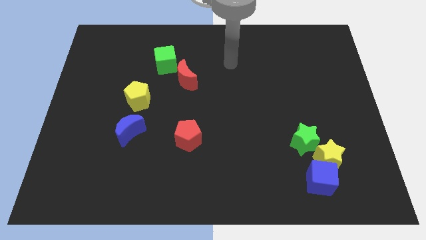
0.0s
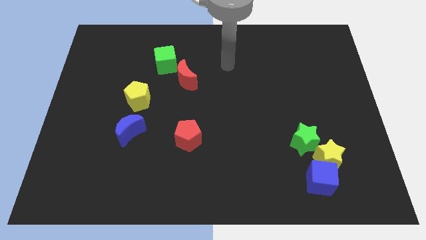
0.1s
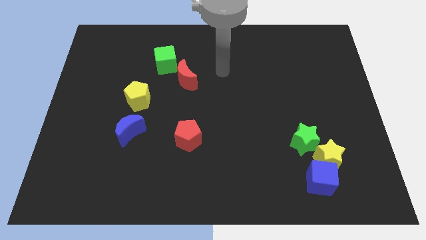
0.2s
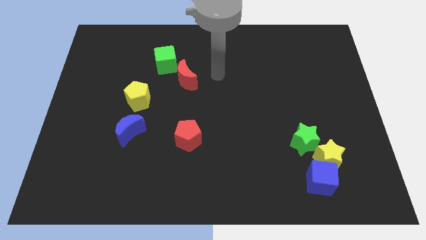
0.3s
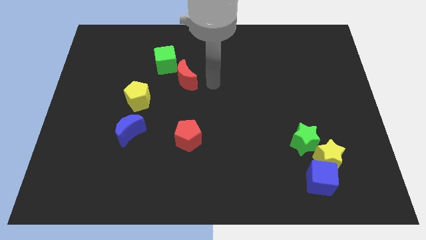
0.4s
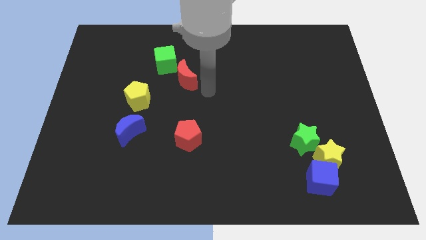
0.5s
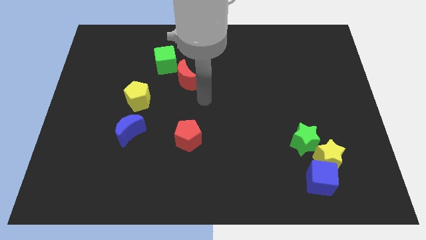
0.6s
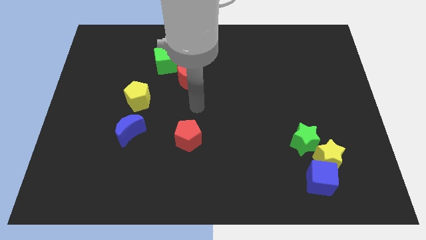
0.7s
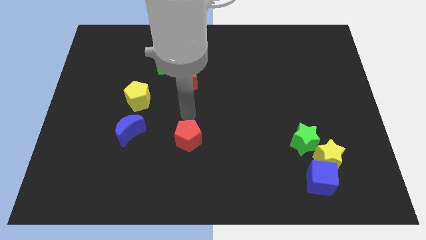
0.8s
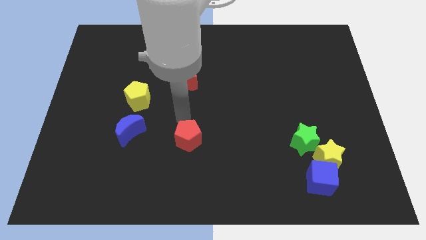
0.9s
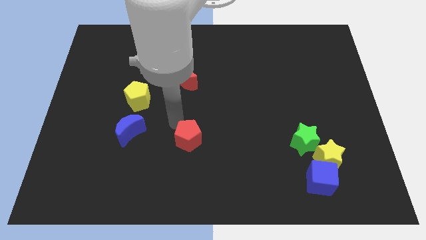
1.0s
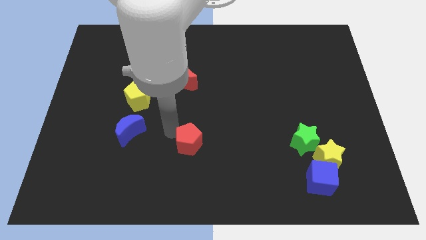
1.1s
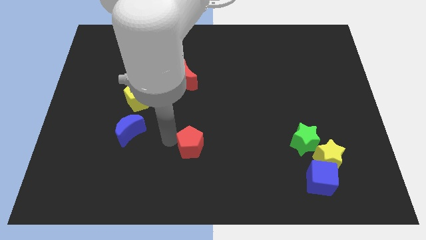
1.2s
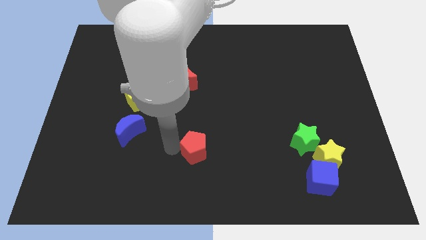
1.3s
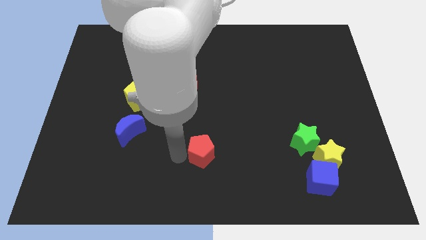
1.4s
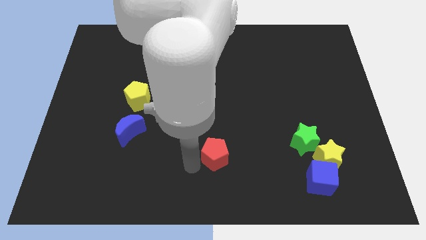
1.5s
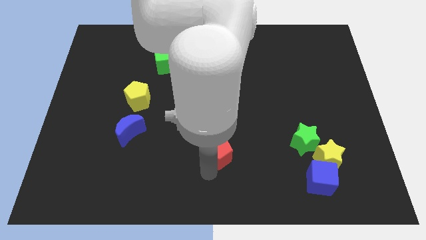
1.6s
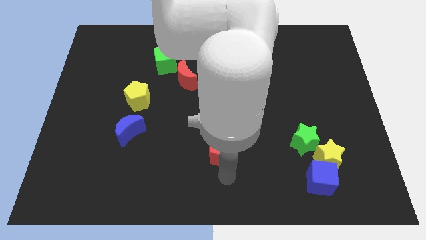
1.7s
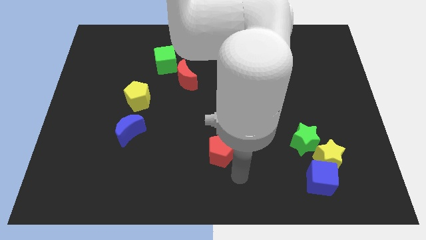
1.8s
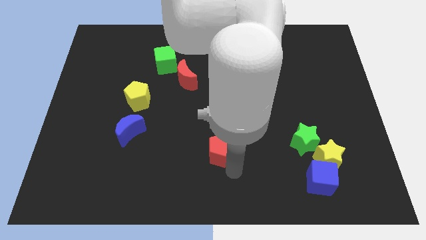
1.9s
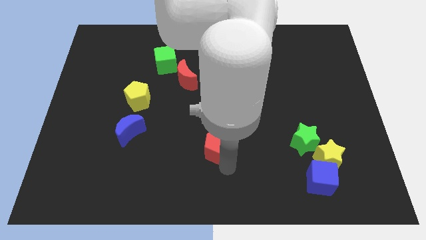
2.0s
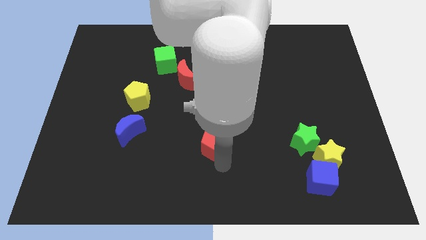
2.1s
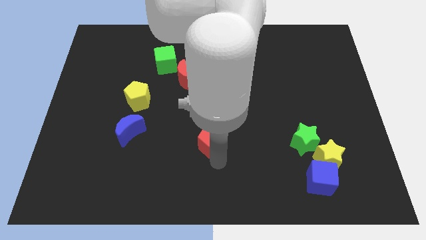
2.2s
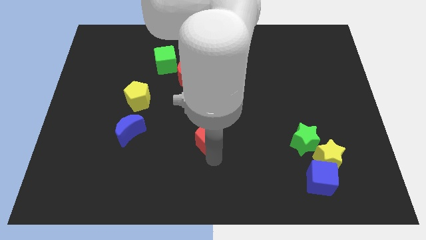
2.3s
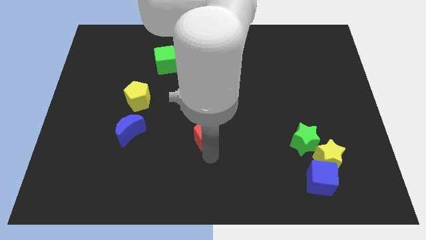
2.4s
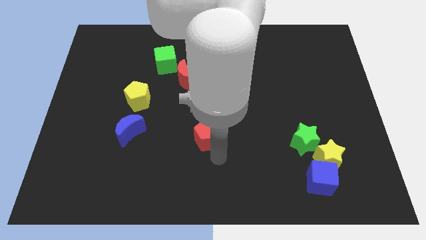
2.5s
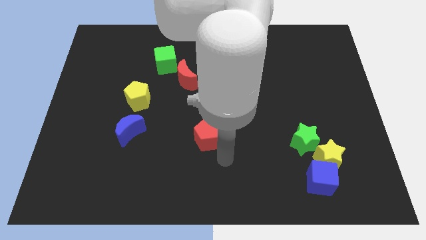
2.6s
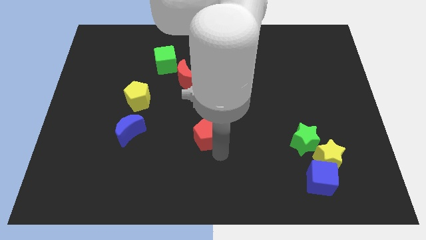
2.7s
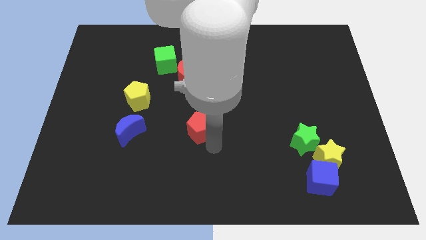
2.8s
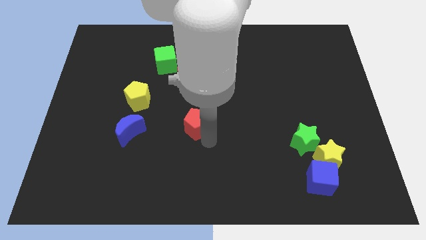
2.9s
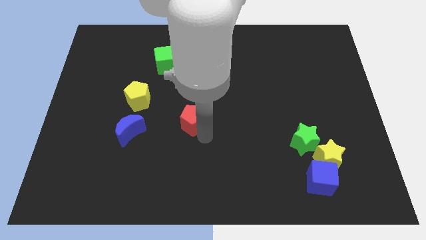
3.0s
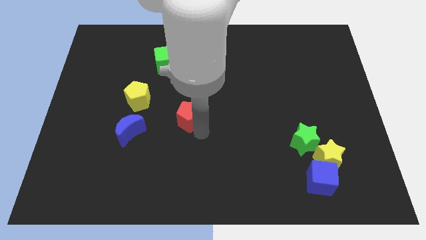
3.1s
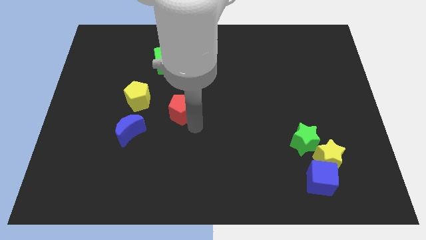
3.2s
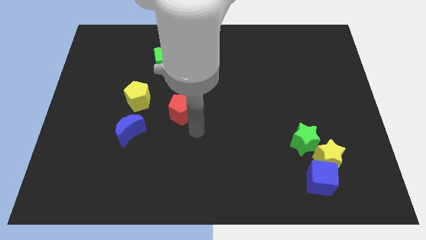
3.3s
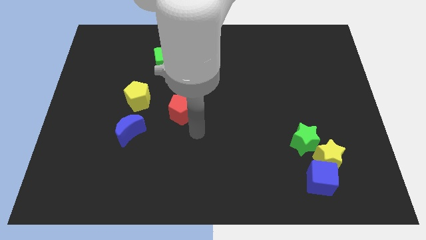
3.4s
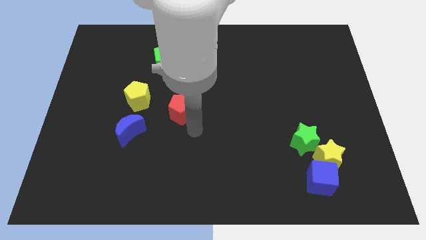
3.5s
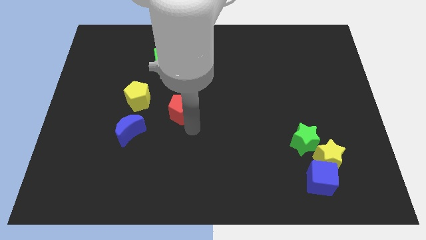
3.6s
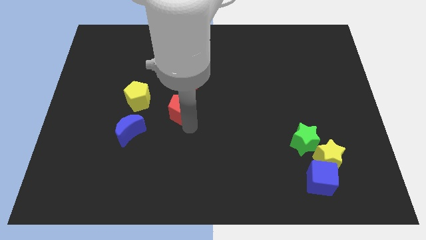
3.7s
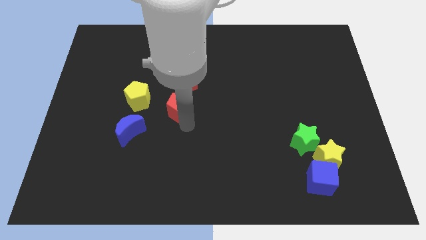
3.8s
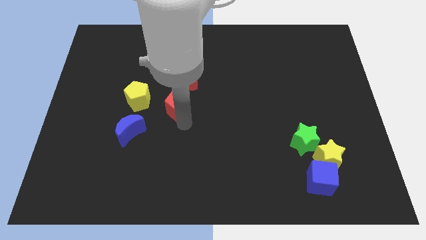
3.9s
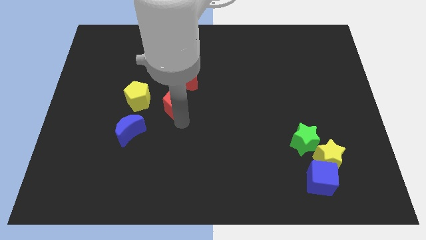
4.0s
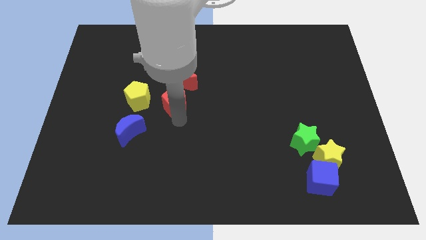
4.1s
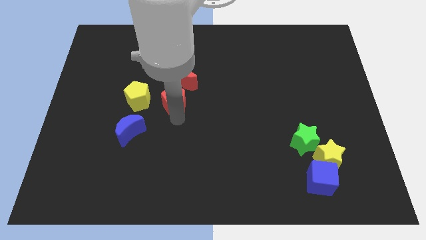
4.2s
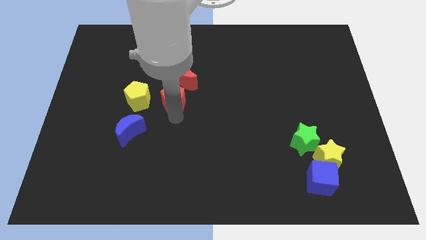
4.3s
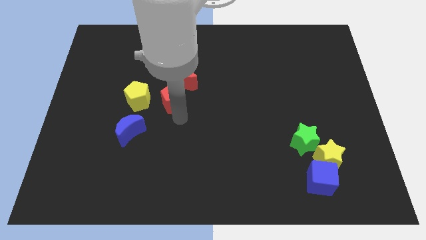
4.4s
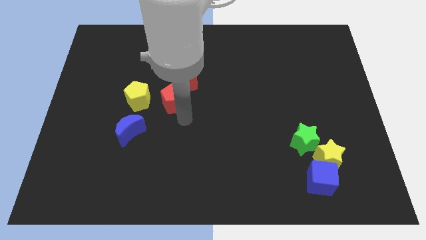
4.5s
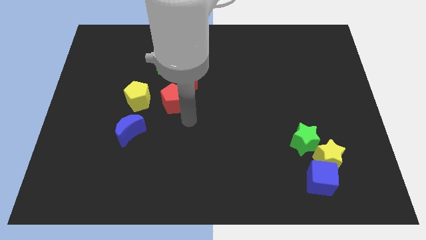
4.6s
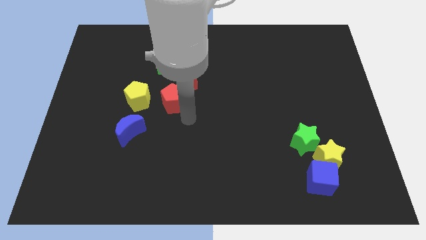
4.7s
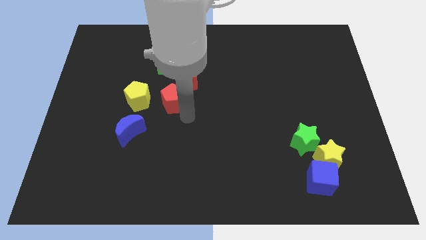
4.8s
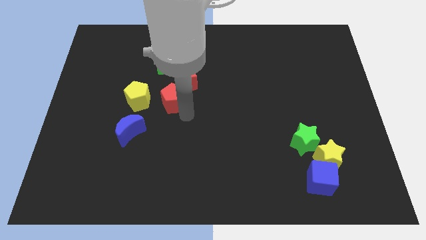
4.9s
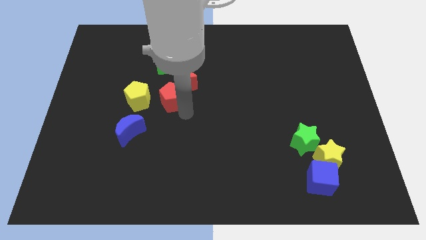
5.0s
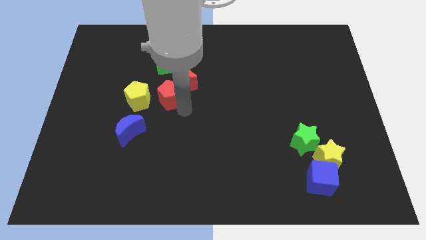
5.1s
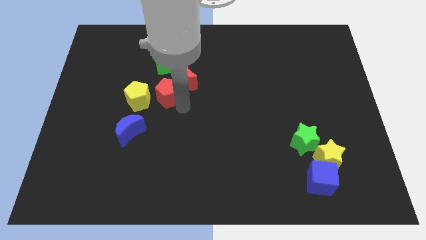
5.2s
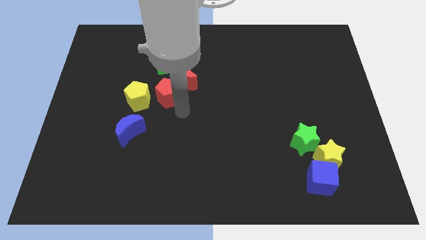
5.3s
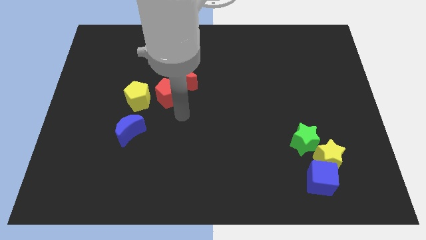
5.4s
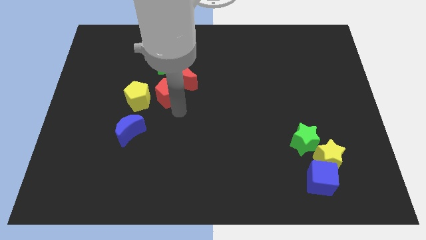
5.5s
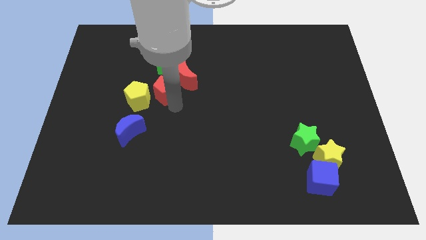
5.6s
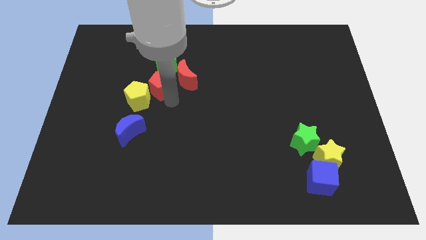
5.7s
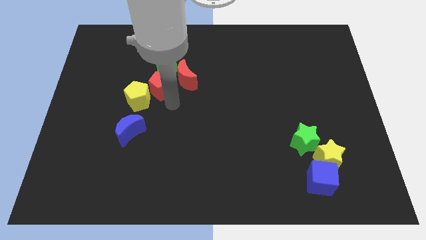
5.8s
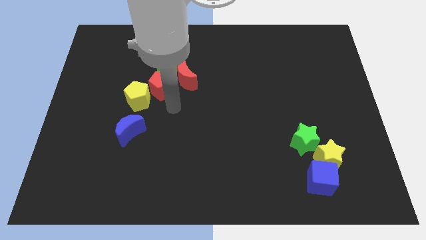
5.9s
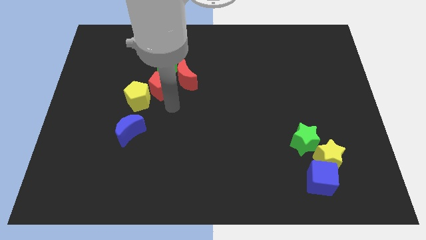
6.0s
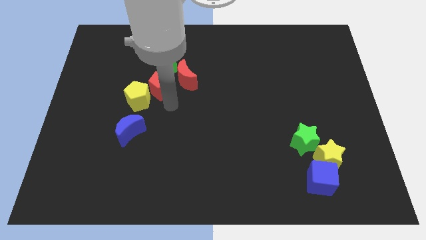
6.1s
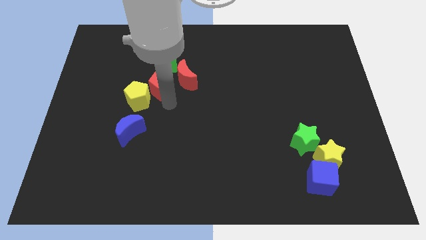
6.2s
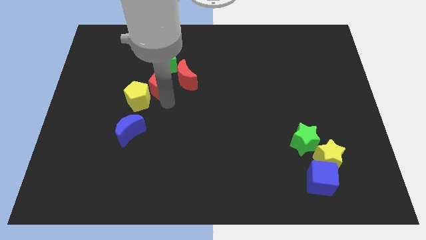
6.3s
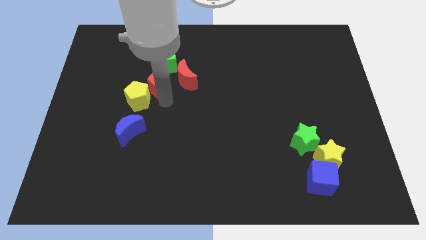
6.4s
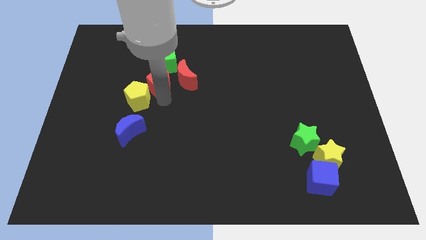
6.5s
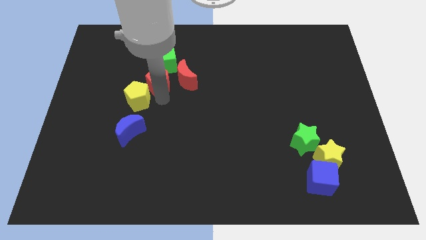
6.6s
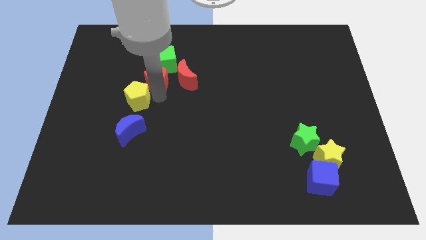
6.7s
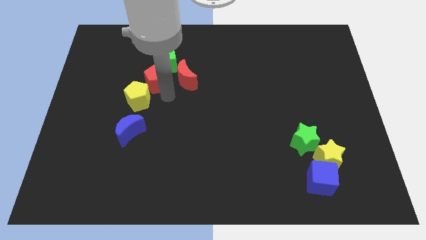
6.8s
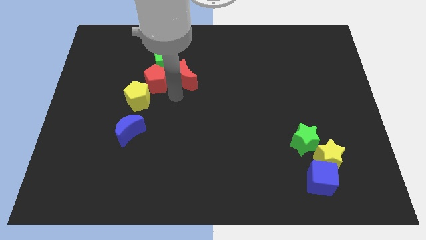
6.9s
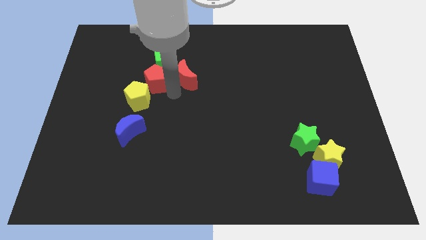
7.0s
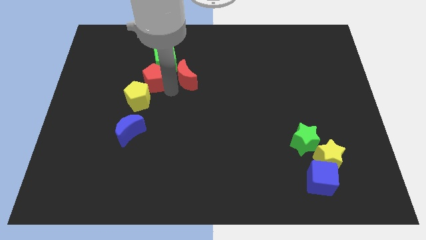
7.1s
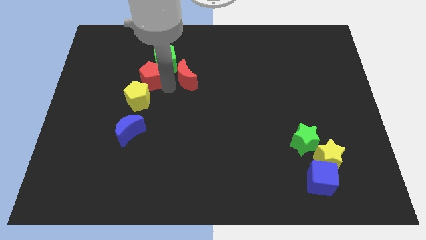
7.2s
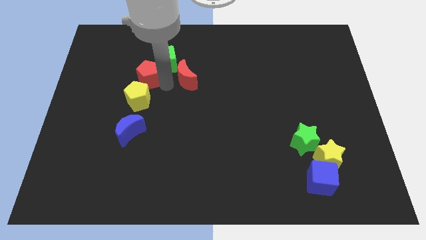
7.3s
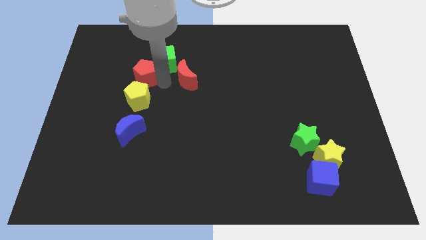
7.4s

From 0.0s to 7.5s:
put the red pentagon left of the green cube
